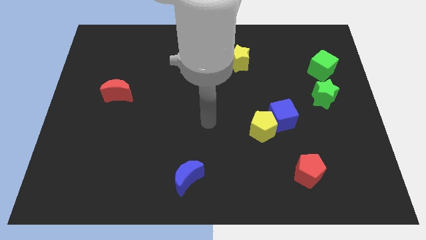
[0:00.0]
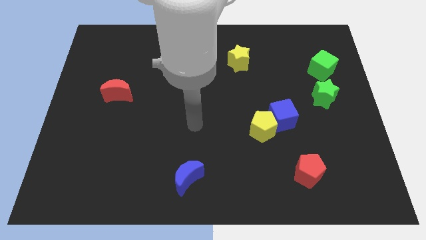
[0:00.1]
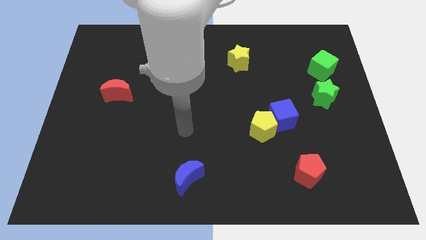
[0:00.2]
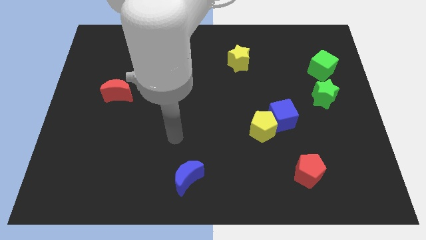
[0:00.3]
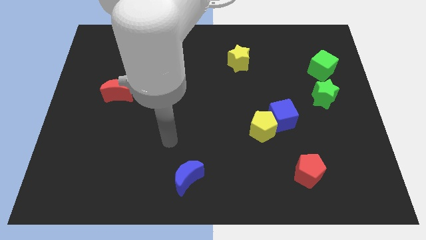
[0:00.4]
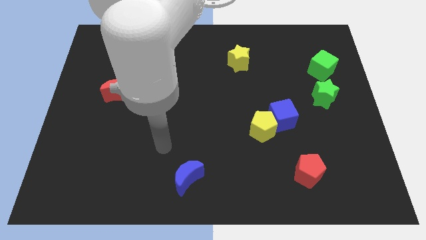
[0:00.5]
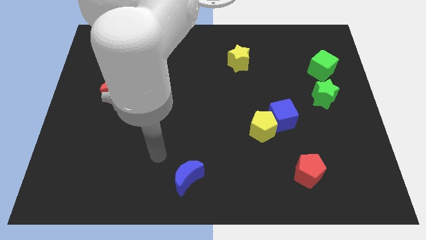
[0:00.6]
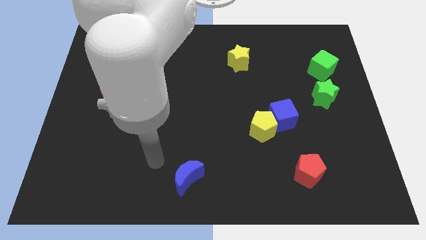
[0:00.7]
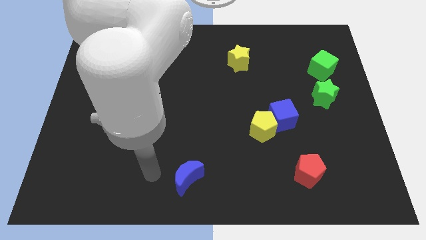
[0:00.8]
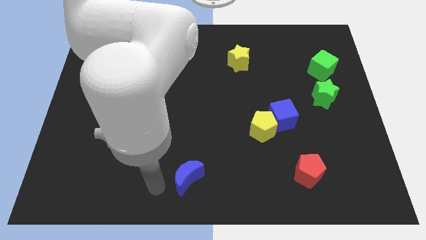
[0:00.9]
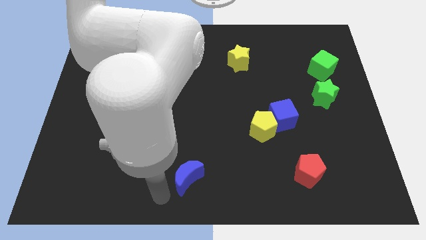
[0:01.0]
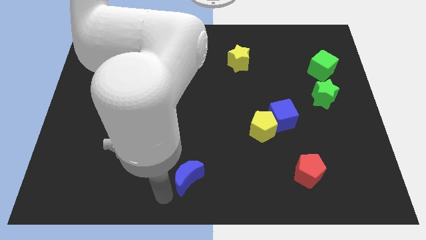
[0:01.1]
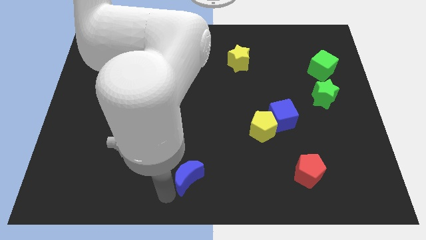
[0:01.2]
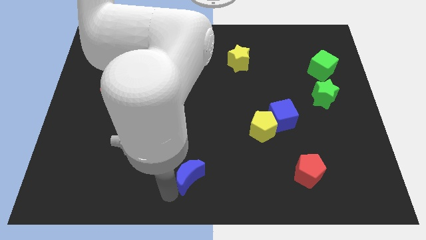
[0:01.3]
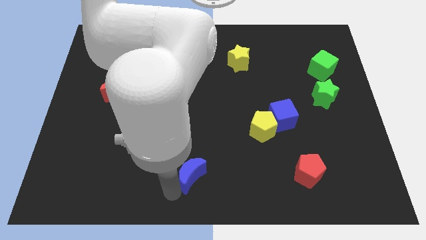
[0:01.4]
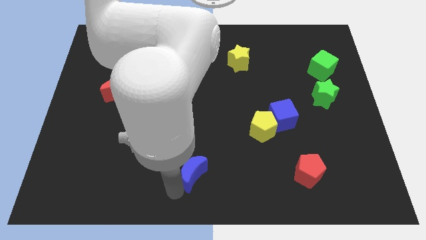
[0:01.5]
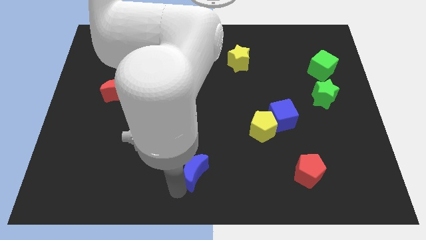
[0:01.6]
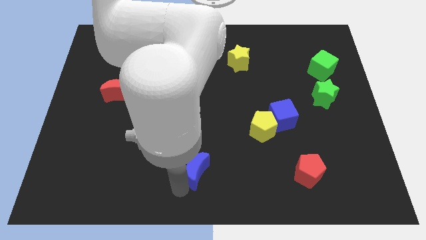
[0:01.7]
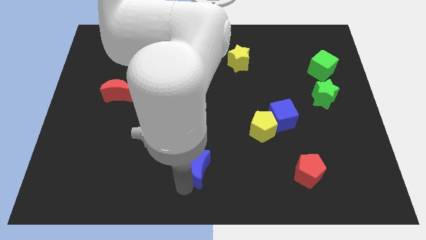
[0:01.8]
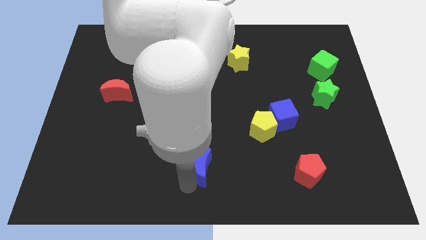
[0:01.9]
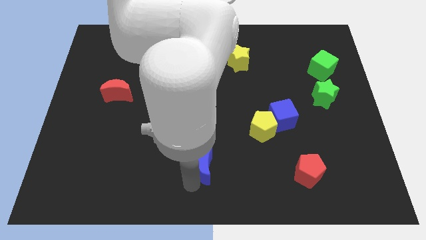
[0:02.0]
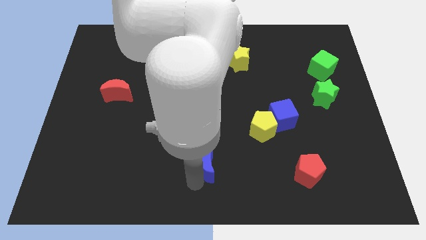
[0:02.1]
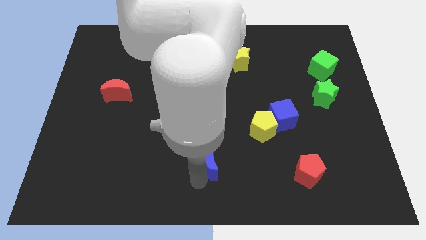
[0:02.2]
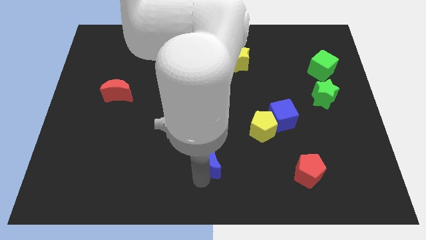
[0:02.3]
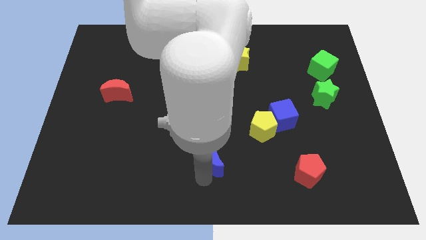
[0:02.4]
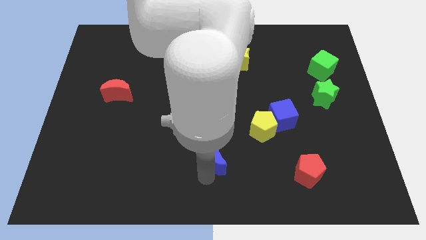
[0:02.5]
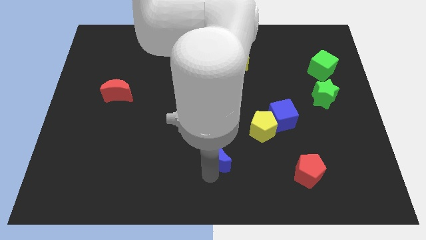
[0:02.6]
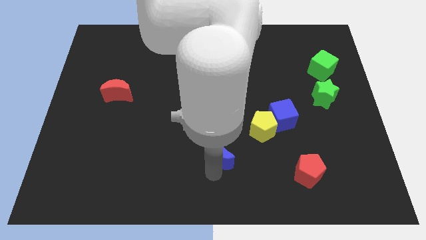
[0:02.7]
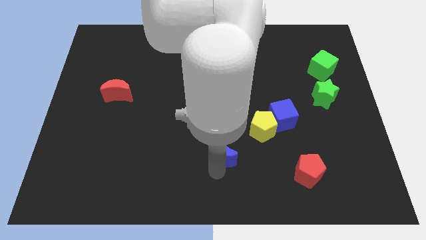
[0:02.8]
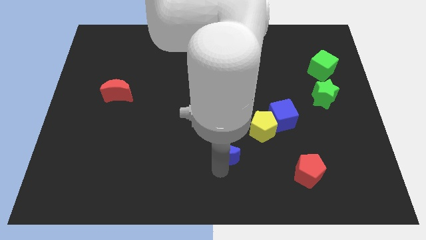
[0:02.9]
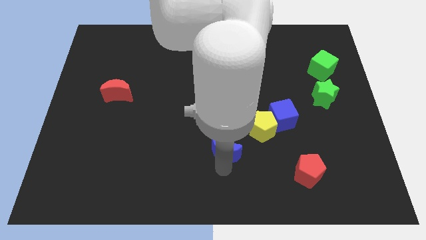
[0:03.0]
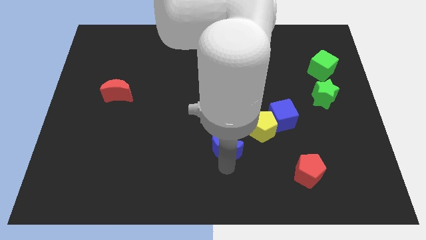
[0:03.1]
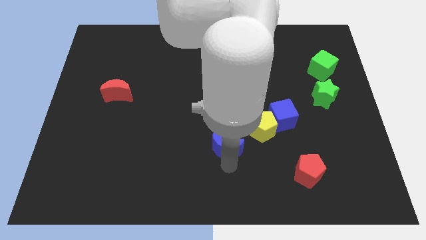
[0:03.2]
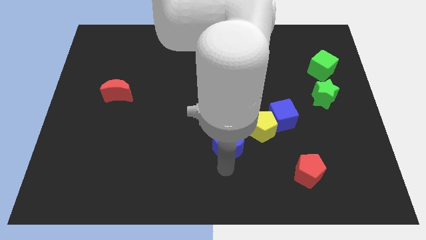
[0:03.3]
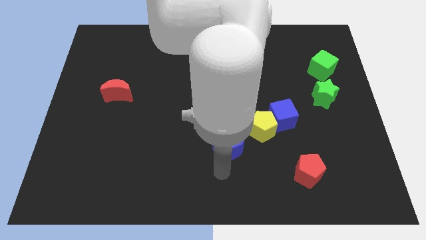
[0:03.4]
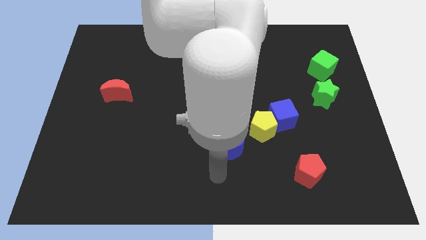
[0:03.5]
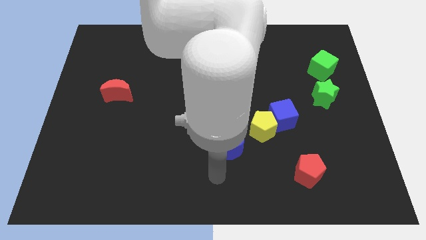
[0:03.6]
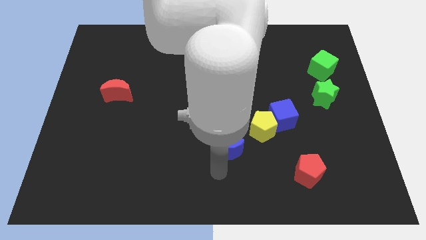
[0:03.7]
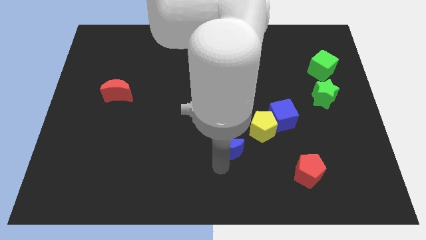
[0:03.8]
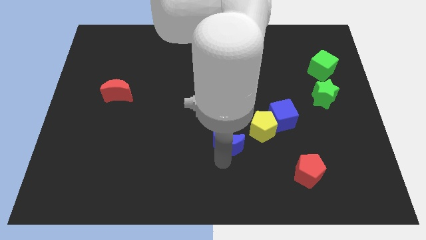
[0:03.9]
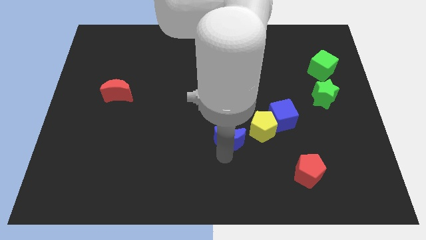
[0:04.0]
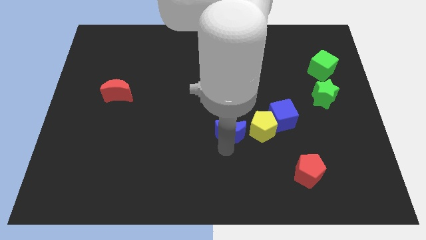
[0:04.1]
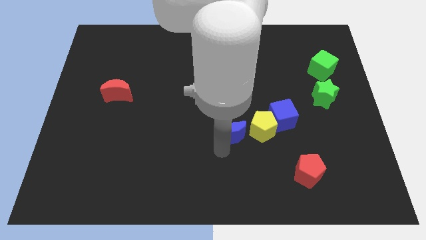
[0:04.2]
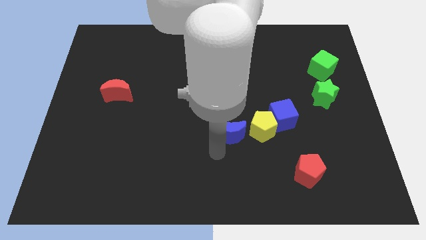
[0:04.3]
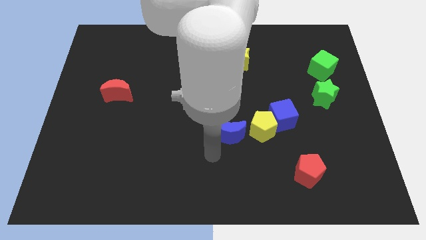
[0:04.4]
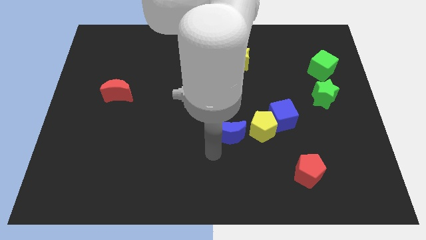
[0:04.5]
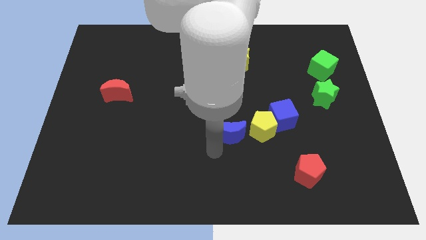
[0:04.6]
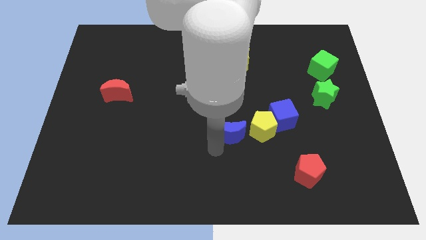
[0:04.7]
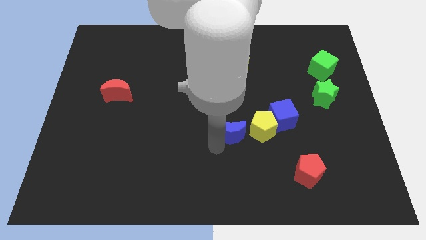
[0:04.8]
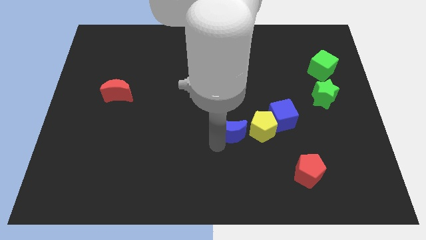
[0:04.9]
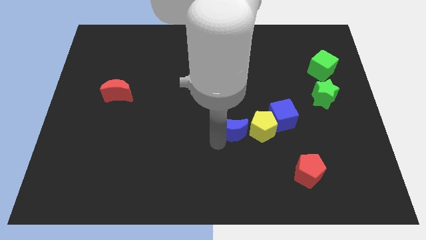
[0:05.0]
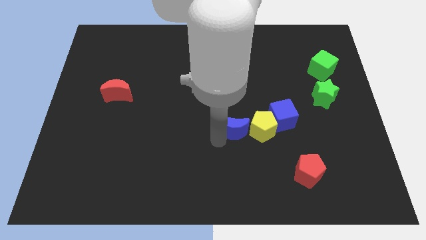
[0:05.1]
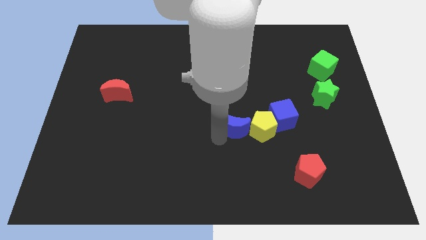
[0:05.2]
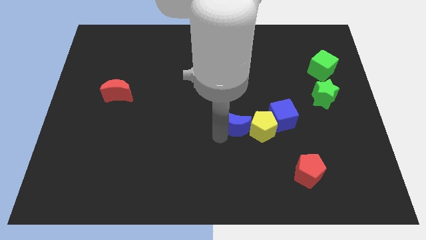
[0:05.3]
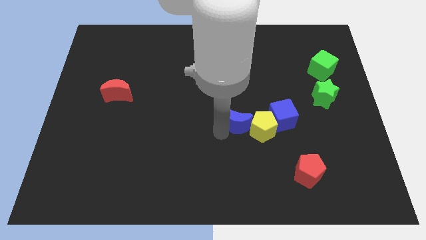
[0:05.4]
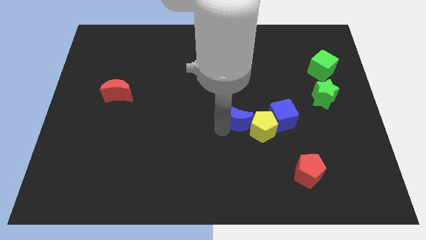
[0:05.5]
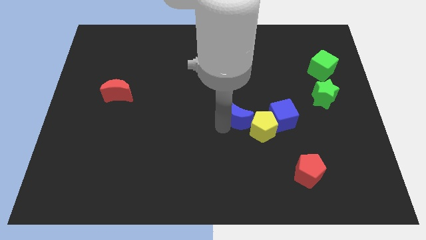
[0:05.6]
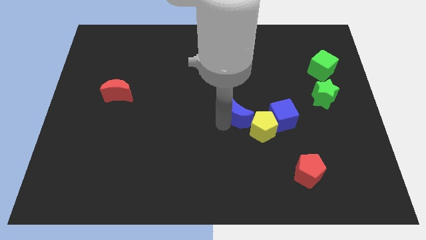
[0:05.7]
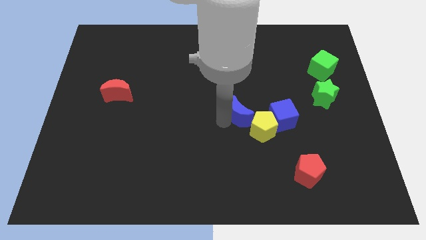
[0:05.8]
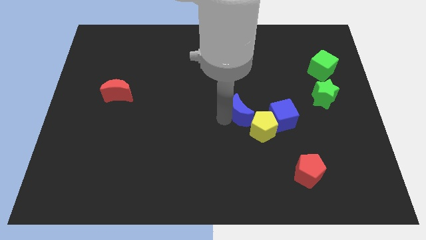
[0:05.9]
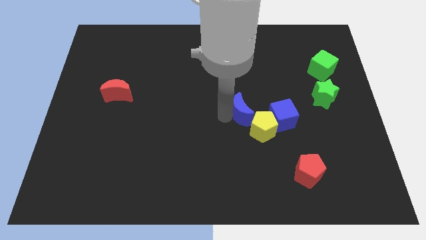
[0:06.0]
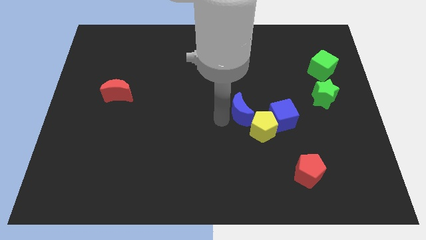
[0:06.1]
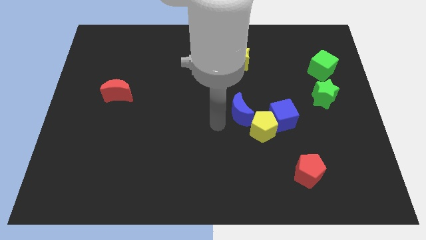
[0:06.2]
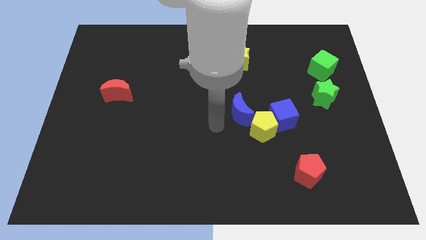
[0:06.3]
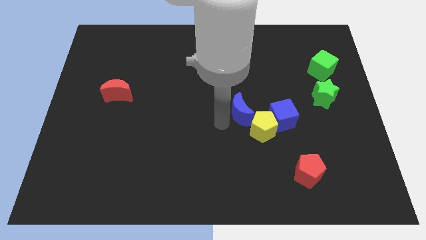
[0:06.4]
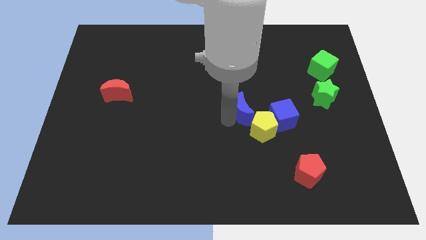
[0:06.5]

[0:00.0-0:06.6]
push the blue moon upwards and to the right diagonally

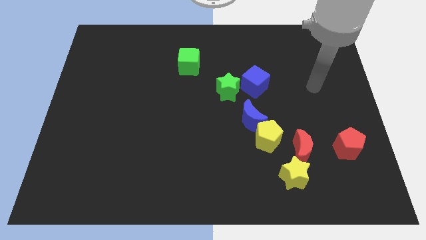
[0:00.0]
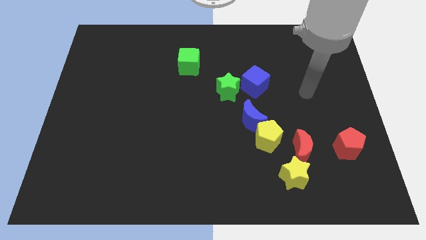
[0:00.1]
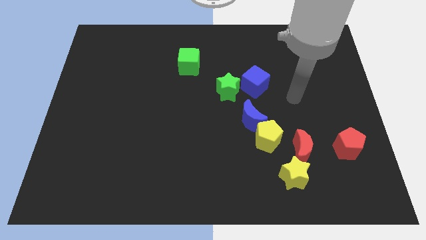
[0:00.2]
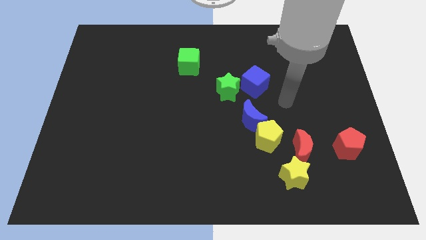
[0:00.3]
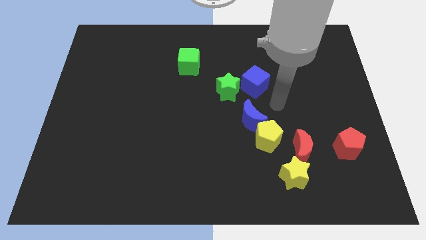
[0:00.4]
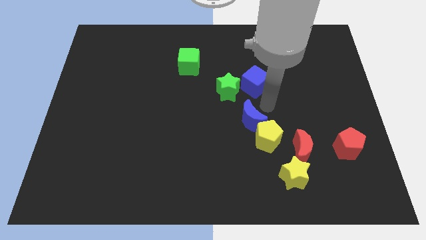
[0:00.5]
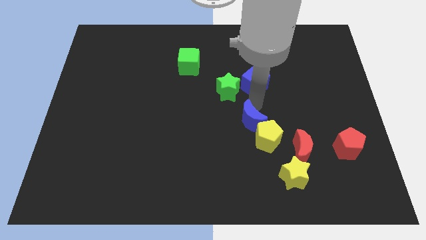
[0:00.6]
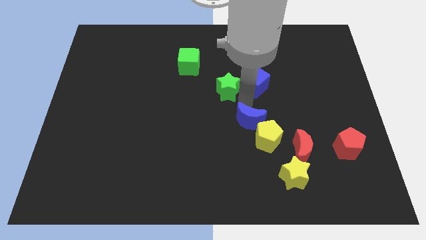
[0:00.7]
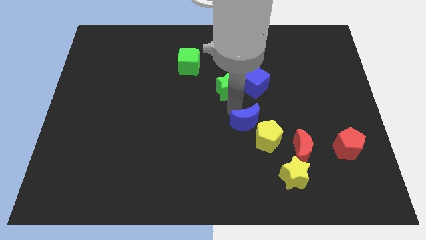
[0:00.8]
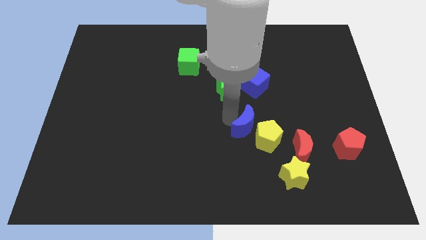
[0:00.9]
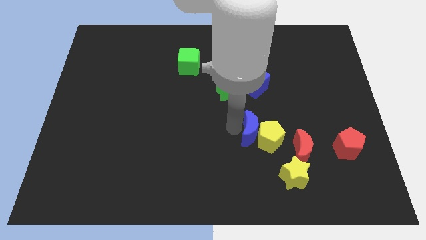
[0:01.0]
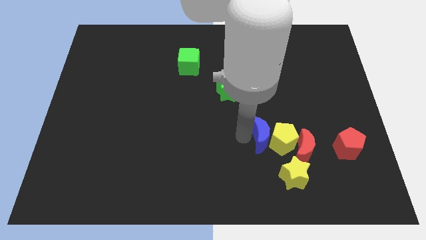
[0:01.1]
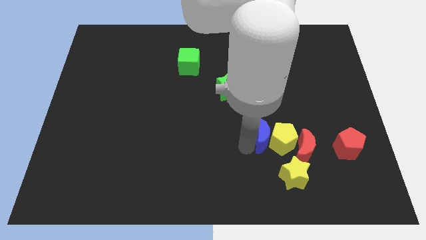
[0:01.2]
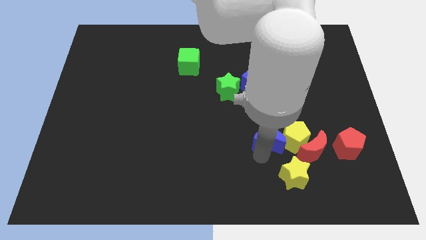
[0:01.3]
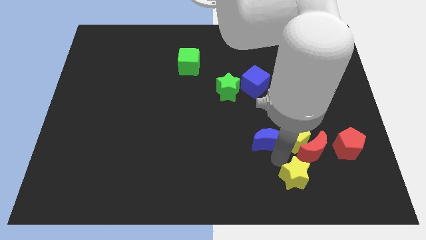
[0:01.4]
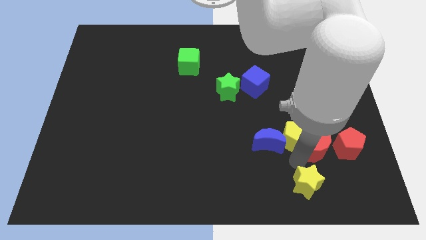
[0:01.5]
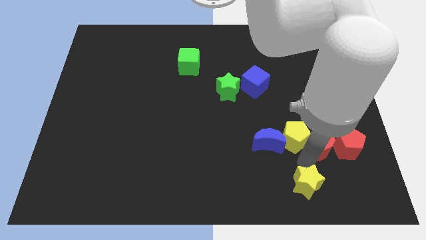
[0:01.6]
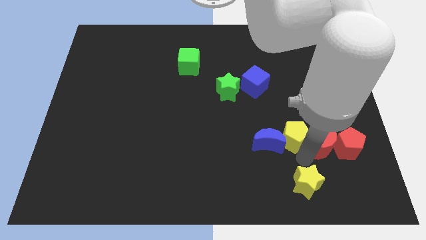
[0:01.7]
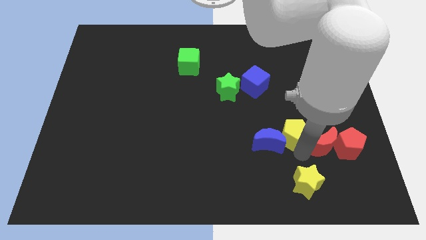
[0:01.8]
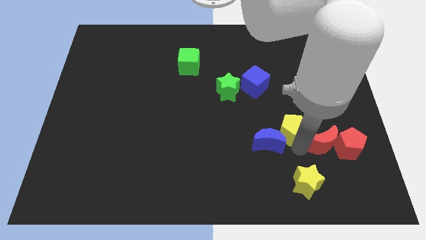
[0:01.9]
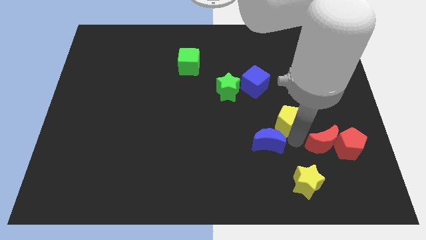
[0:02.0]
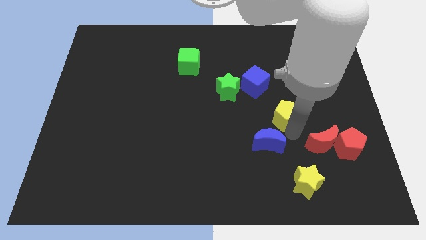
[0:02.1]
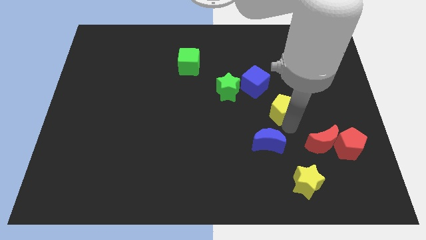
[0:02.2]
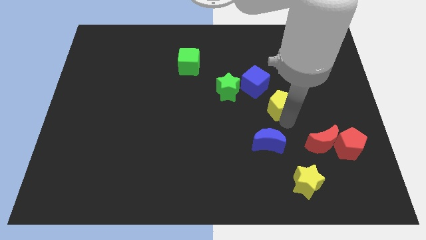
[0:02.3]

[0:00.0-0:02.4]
push the yellow pentagon slightly upwards
